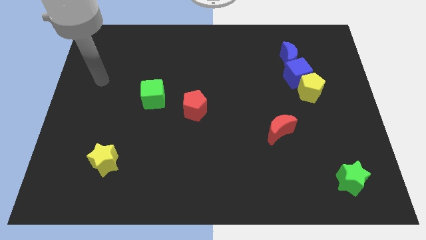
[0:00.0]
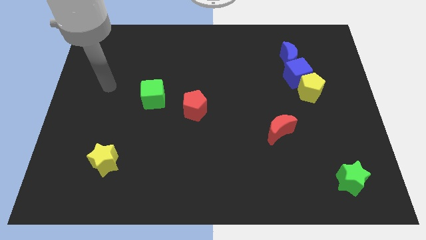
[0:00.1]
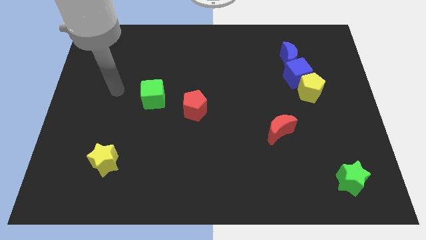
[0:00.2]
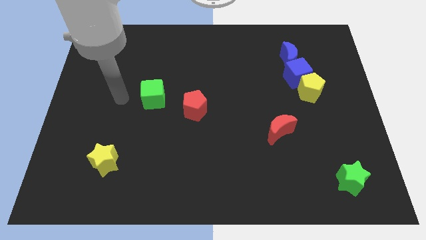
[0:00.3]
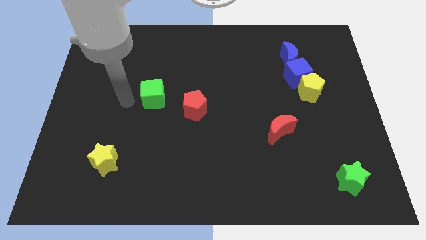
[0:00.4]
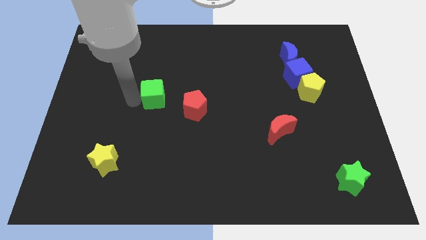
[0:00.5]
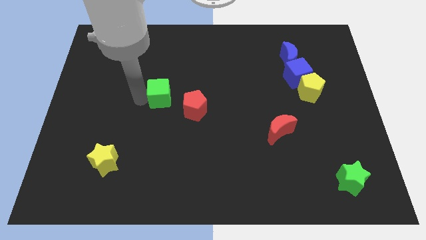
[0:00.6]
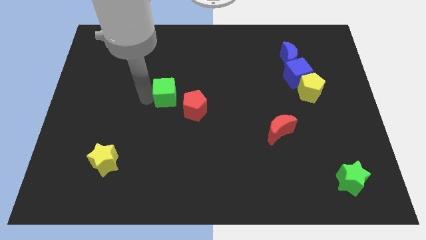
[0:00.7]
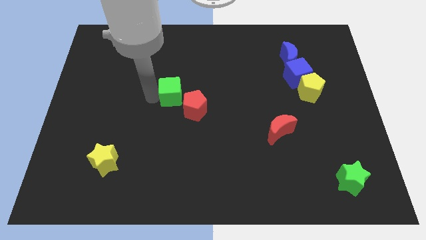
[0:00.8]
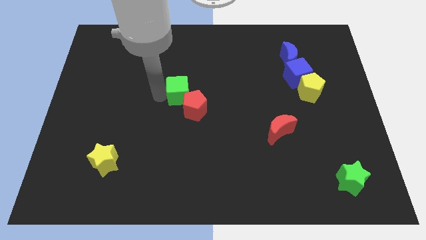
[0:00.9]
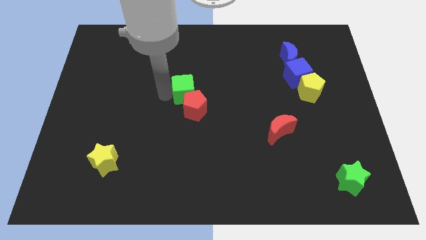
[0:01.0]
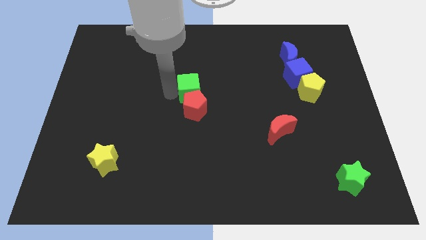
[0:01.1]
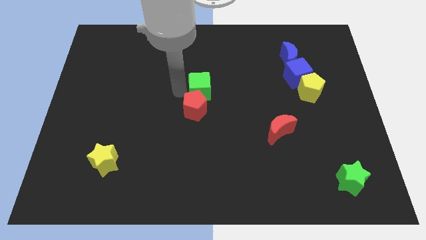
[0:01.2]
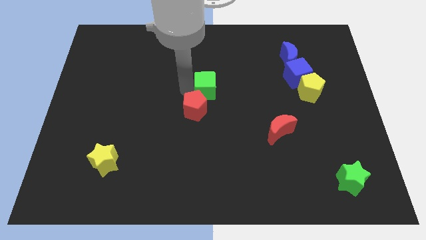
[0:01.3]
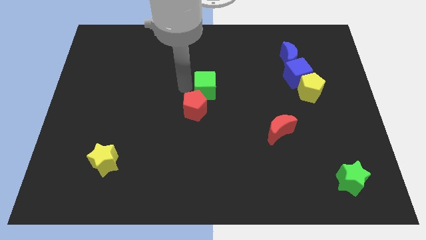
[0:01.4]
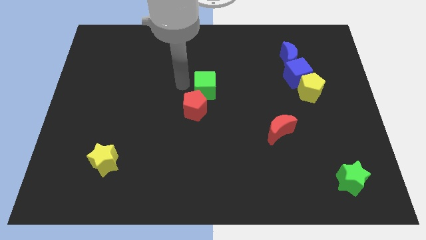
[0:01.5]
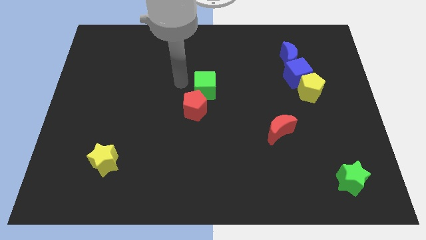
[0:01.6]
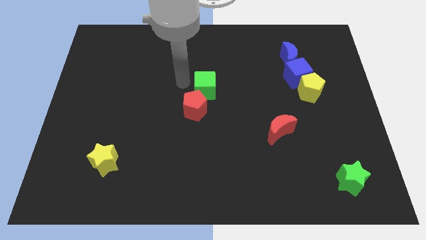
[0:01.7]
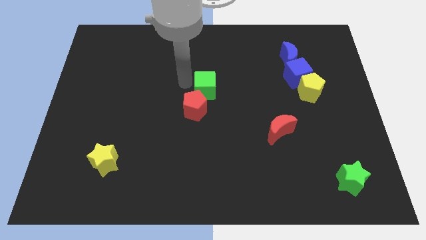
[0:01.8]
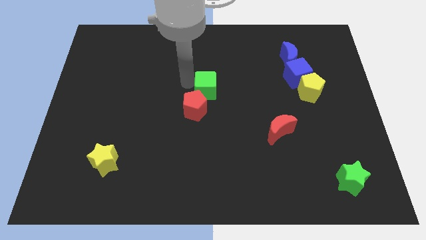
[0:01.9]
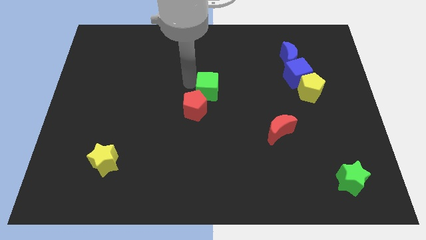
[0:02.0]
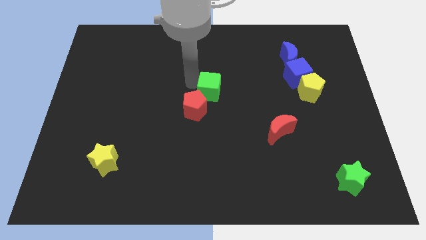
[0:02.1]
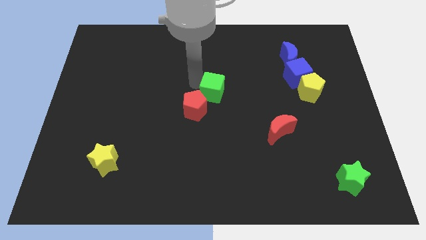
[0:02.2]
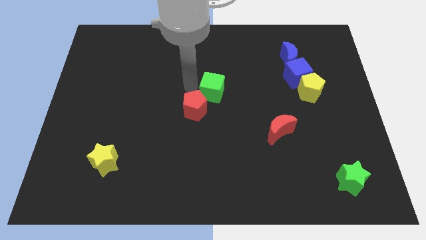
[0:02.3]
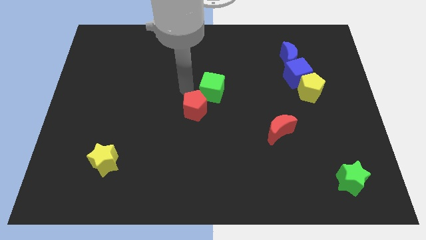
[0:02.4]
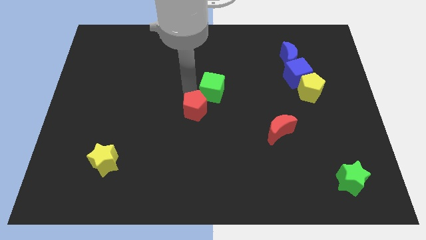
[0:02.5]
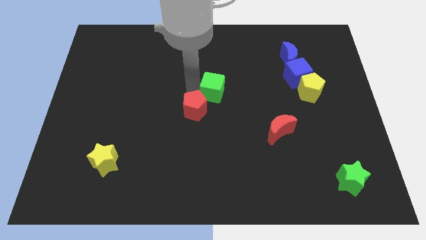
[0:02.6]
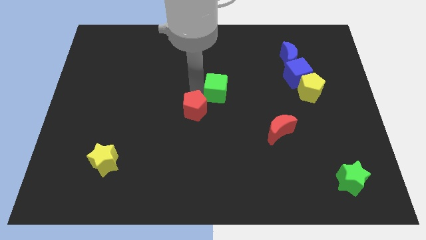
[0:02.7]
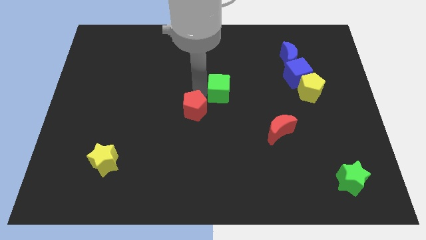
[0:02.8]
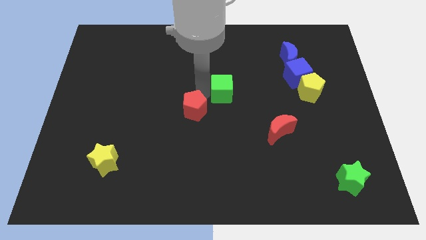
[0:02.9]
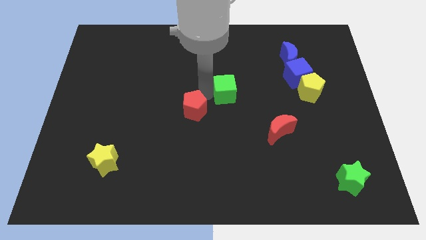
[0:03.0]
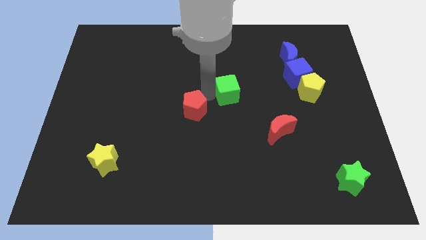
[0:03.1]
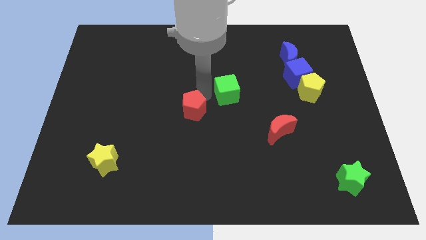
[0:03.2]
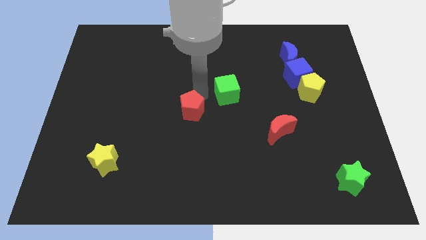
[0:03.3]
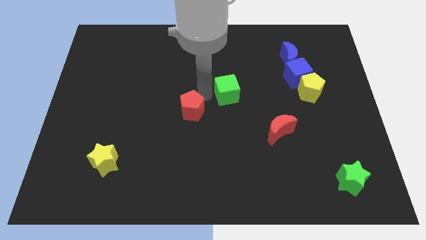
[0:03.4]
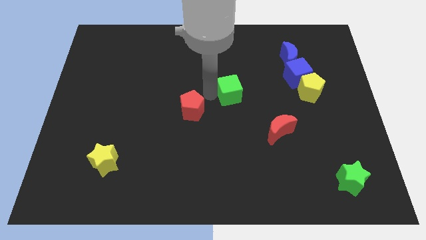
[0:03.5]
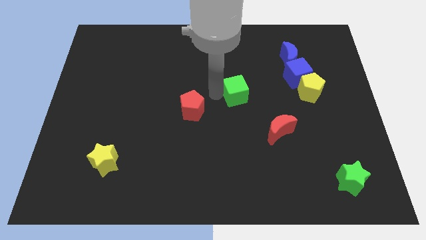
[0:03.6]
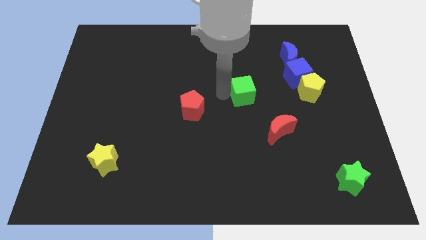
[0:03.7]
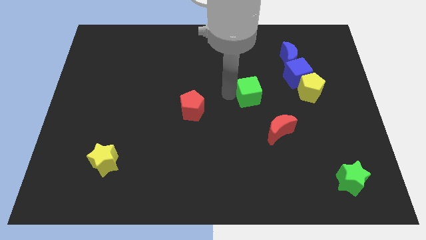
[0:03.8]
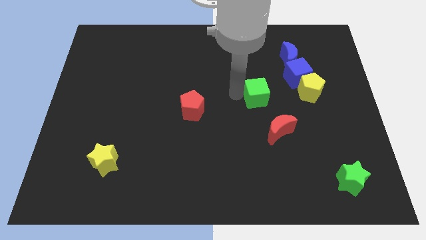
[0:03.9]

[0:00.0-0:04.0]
move the green cube above the red moon

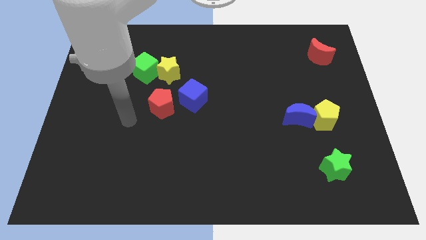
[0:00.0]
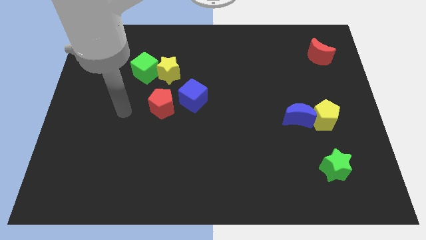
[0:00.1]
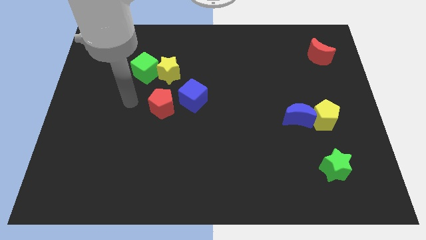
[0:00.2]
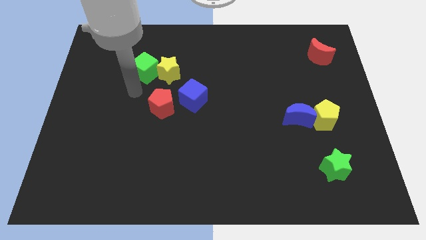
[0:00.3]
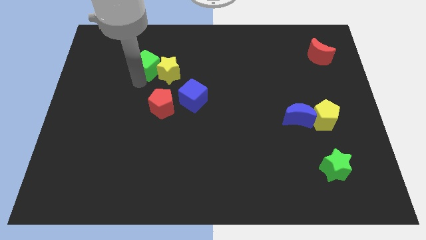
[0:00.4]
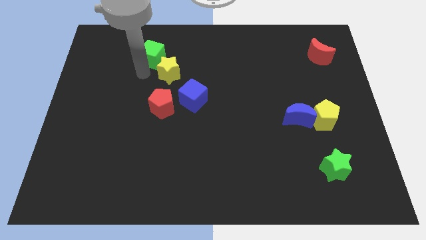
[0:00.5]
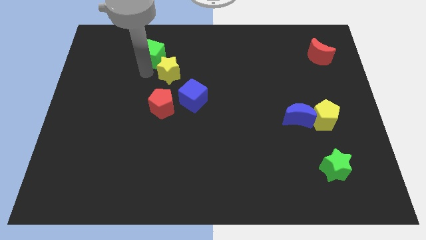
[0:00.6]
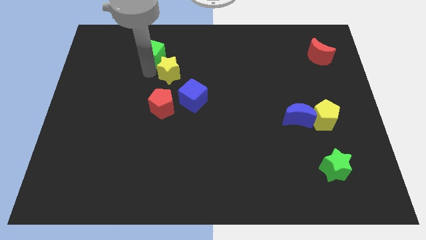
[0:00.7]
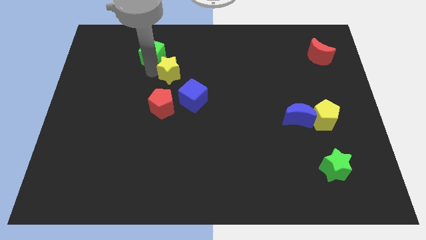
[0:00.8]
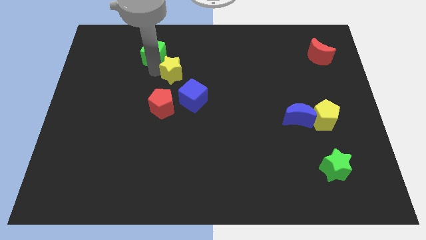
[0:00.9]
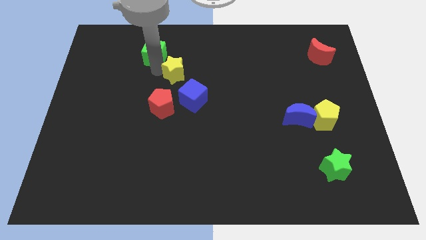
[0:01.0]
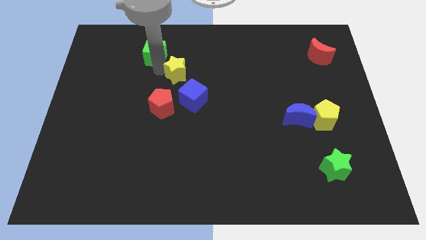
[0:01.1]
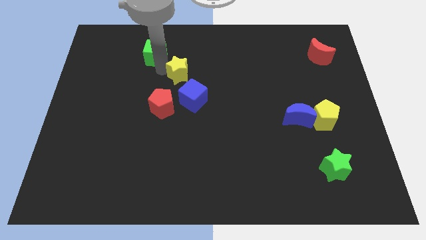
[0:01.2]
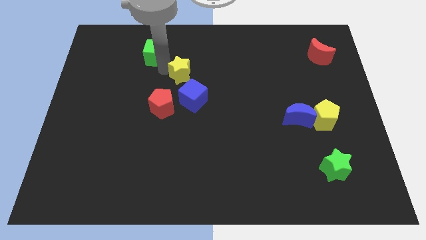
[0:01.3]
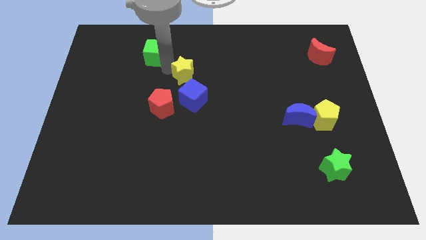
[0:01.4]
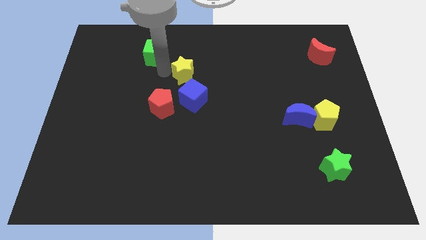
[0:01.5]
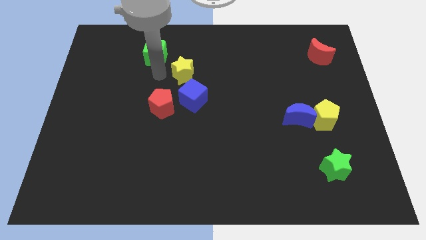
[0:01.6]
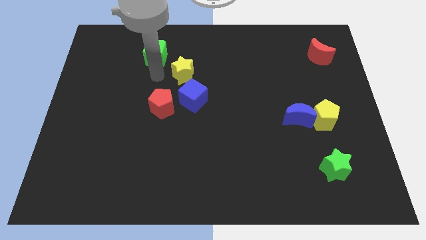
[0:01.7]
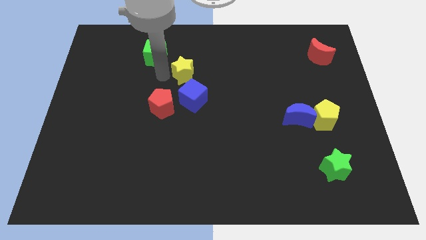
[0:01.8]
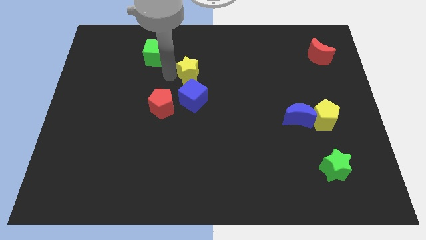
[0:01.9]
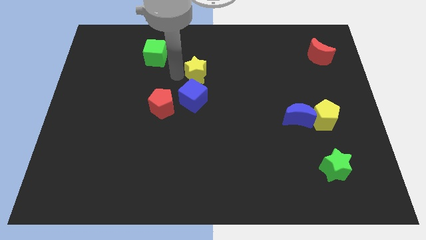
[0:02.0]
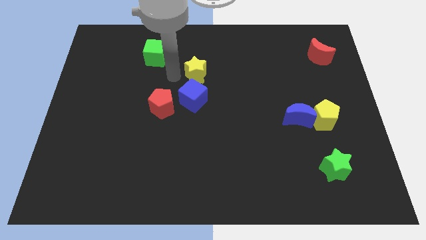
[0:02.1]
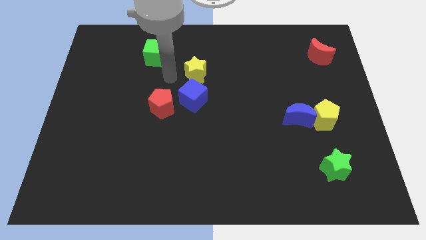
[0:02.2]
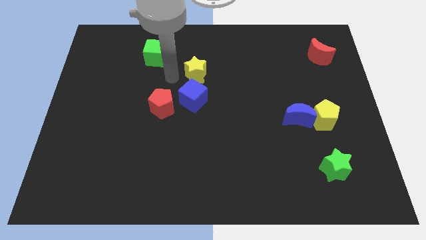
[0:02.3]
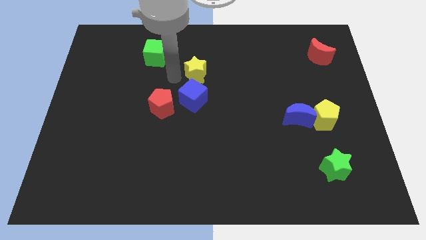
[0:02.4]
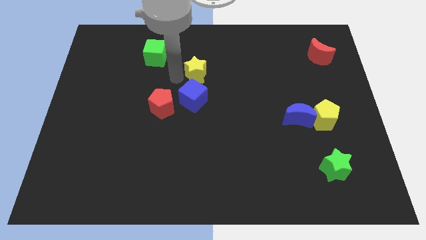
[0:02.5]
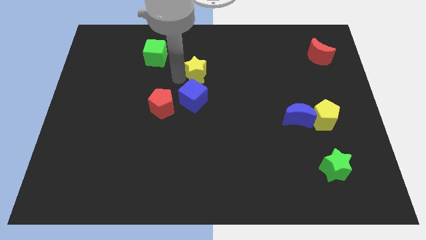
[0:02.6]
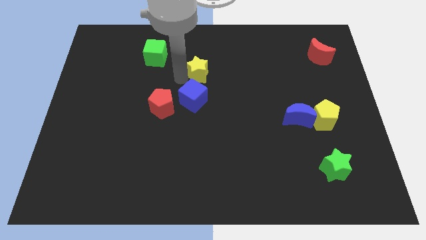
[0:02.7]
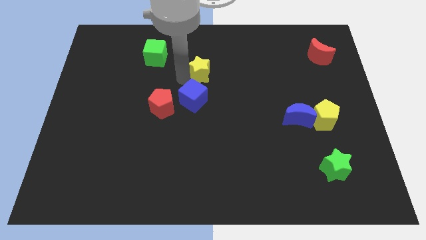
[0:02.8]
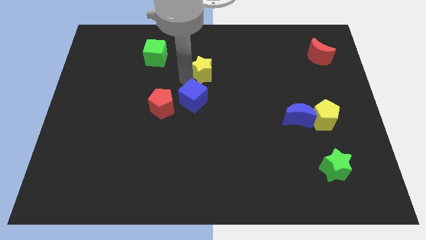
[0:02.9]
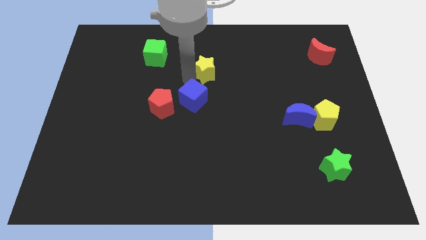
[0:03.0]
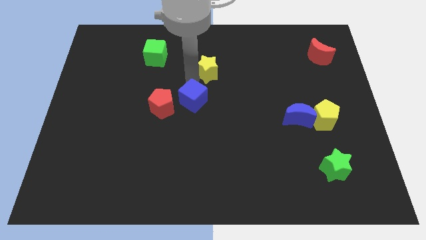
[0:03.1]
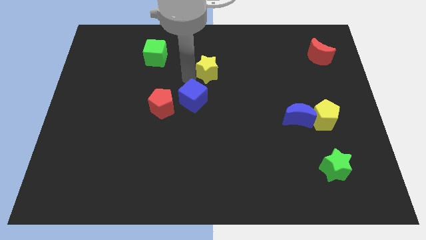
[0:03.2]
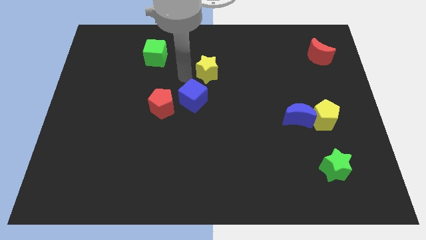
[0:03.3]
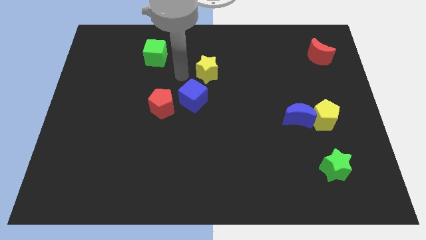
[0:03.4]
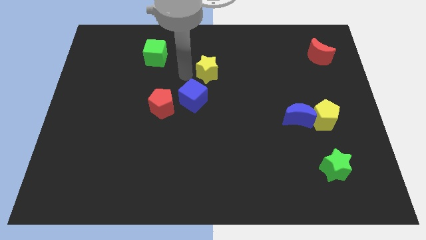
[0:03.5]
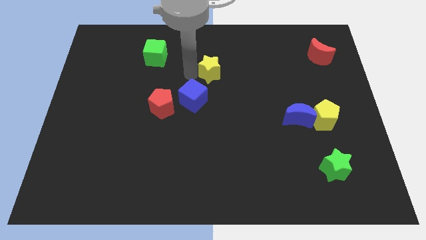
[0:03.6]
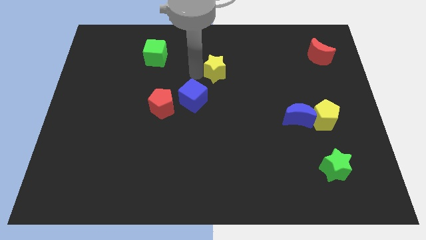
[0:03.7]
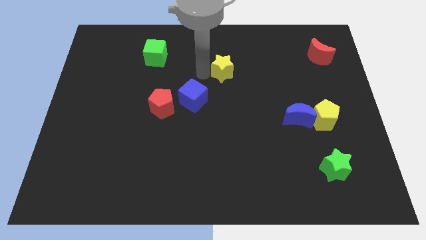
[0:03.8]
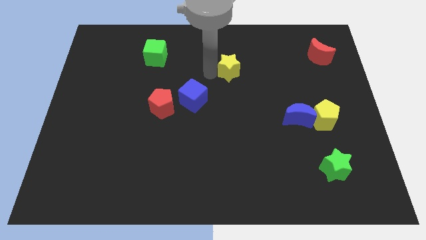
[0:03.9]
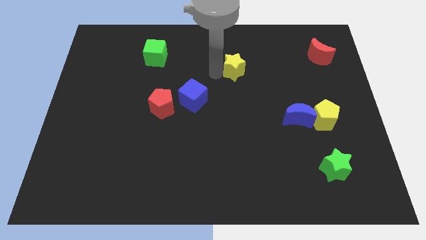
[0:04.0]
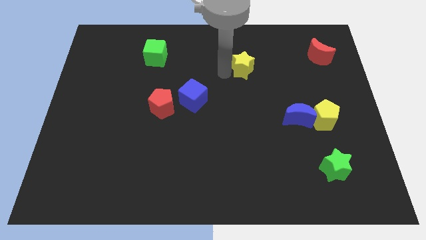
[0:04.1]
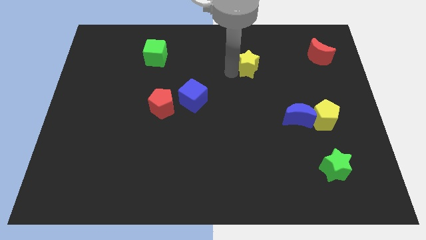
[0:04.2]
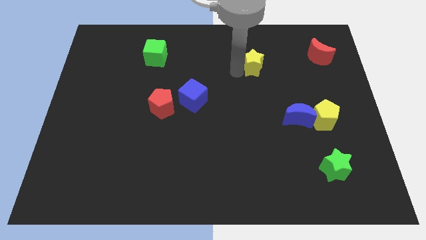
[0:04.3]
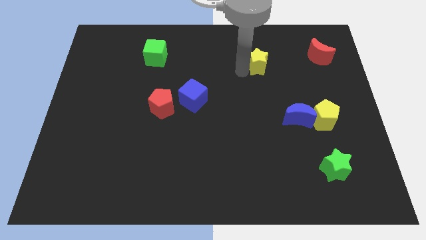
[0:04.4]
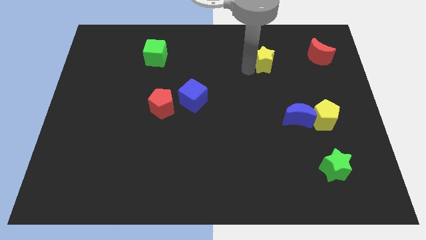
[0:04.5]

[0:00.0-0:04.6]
slide the yellow star left of the red moon
